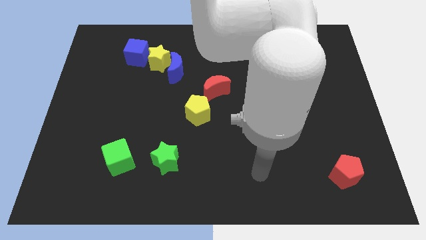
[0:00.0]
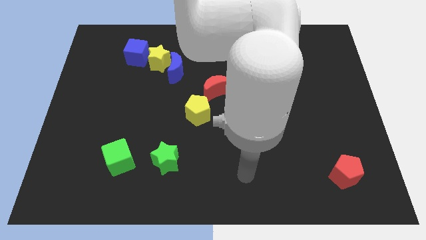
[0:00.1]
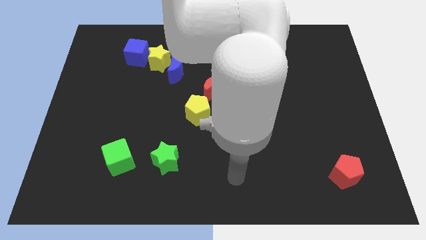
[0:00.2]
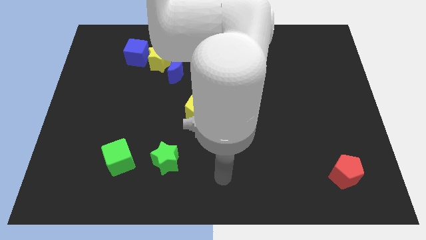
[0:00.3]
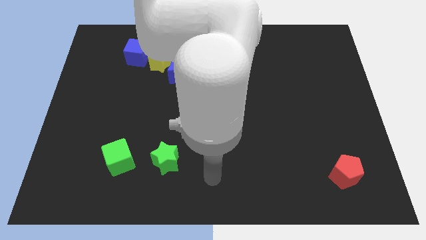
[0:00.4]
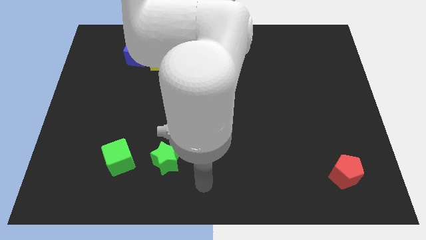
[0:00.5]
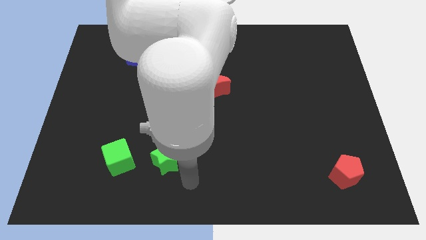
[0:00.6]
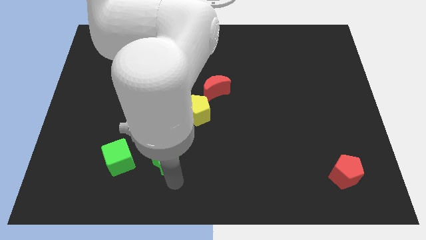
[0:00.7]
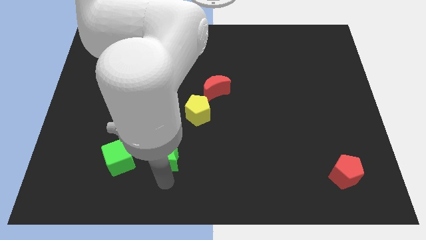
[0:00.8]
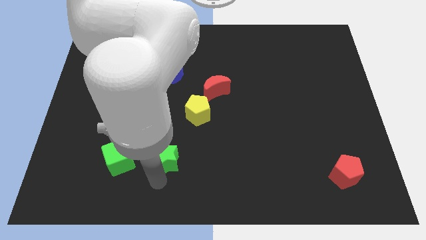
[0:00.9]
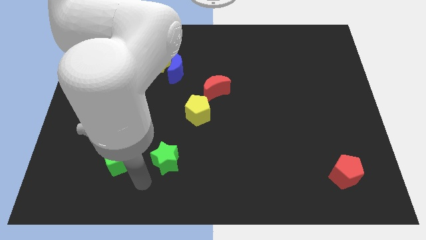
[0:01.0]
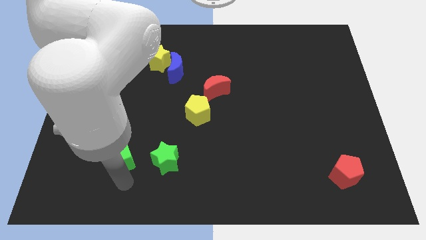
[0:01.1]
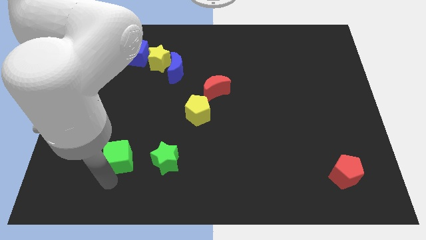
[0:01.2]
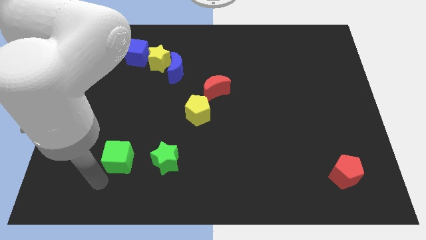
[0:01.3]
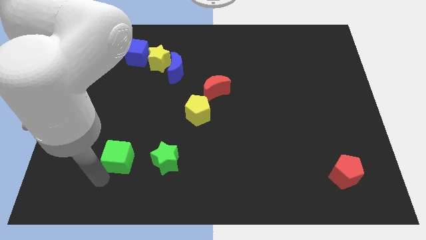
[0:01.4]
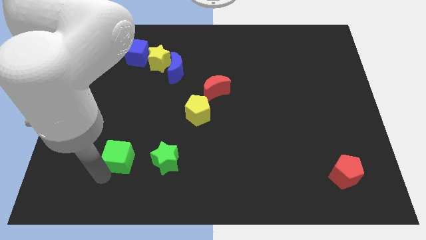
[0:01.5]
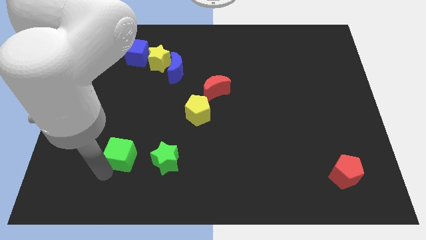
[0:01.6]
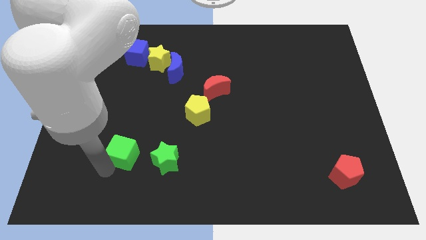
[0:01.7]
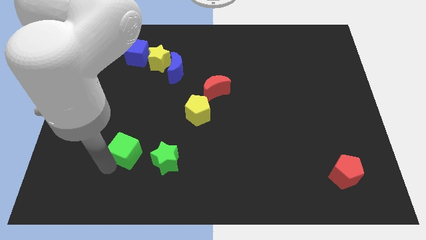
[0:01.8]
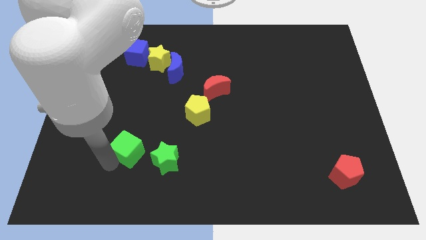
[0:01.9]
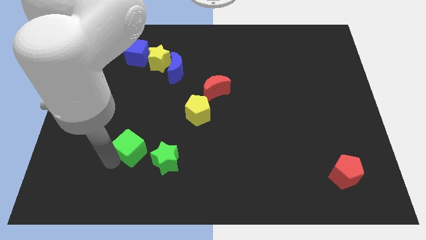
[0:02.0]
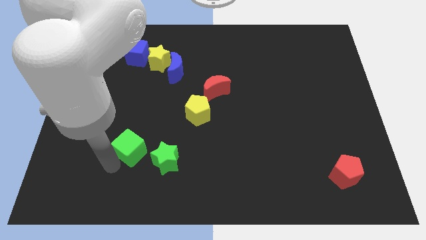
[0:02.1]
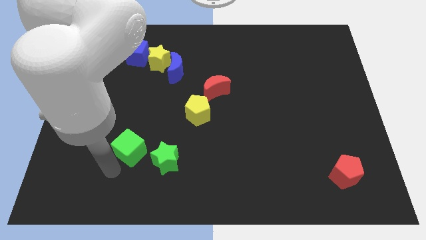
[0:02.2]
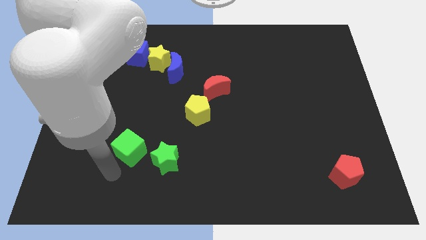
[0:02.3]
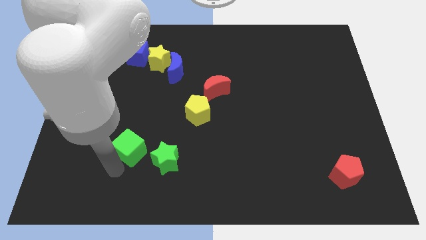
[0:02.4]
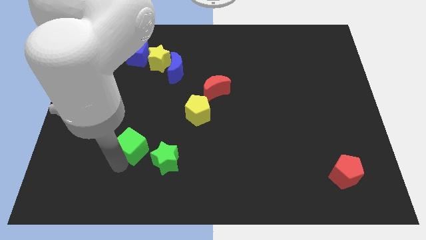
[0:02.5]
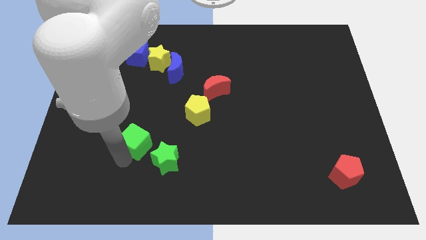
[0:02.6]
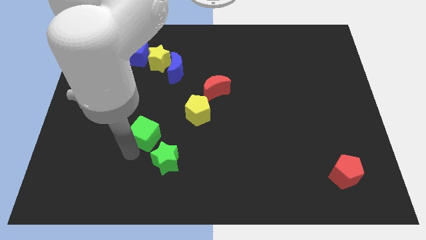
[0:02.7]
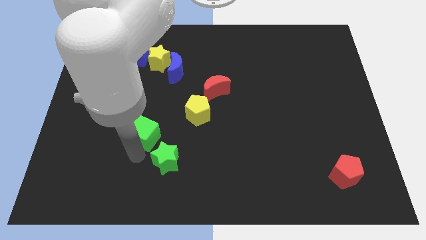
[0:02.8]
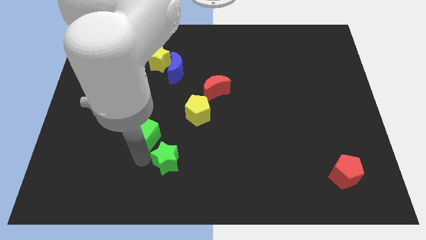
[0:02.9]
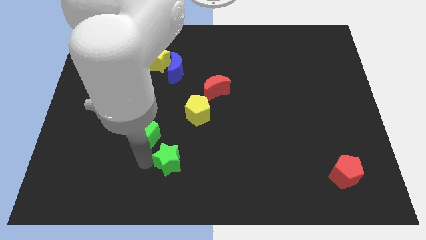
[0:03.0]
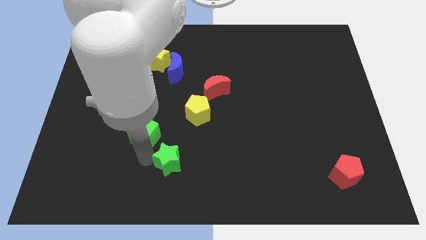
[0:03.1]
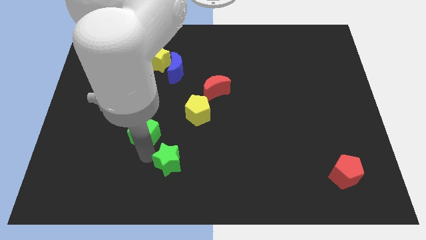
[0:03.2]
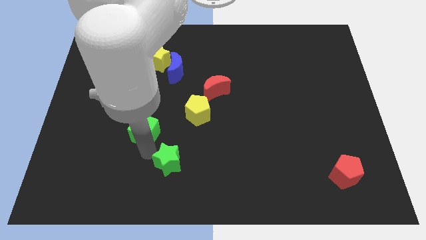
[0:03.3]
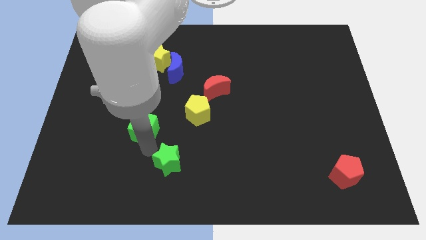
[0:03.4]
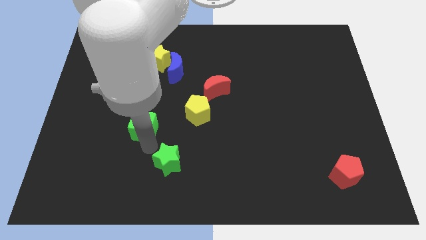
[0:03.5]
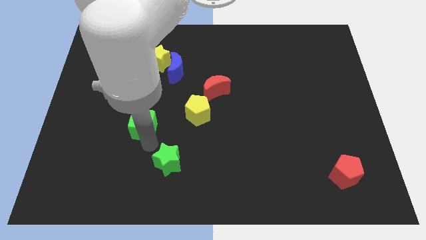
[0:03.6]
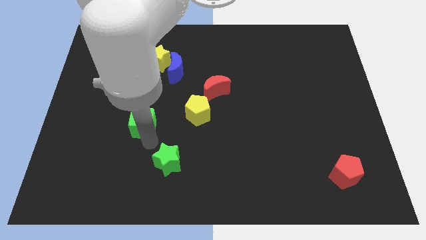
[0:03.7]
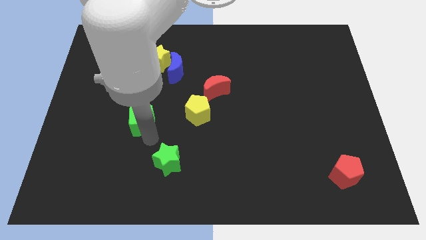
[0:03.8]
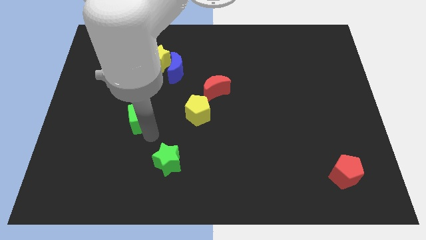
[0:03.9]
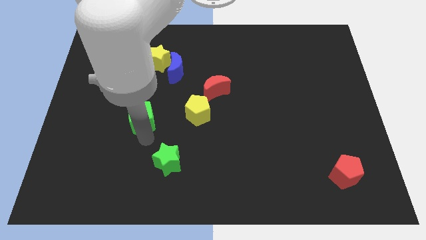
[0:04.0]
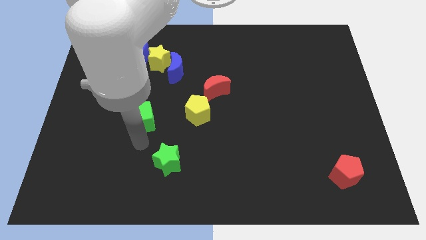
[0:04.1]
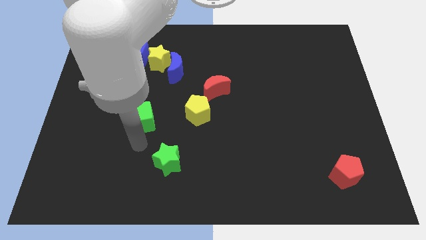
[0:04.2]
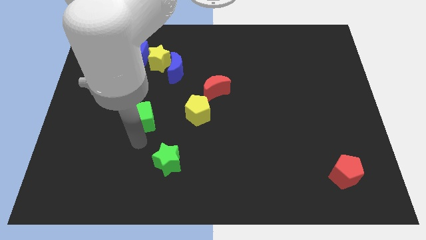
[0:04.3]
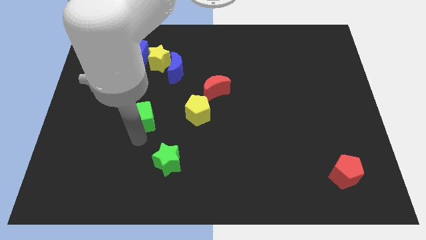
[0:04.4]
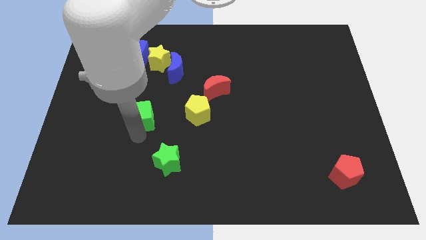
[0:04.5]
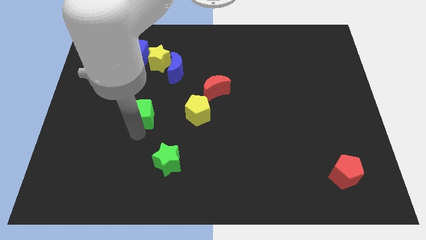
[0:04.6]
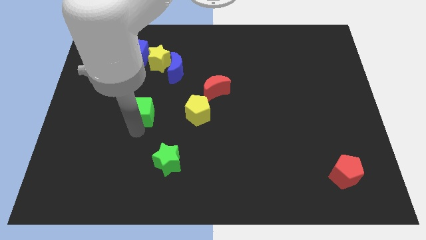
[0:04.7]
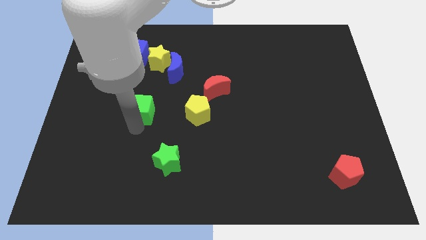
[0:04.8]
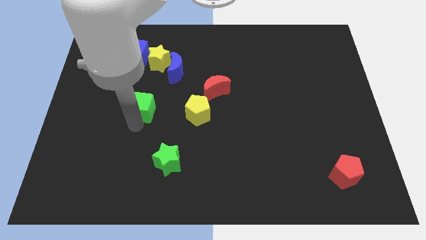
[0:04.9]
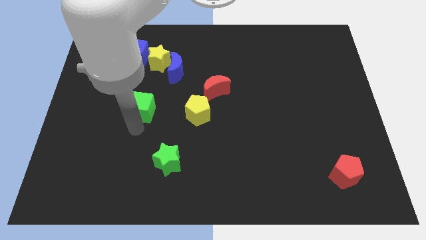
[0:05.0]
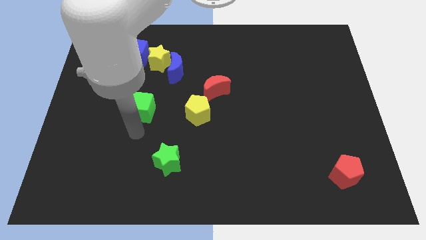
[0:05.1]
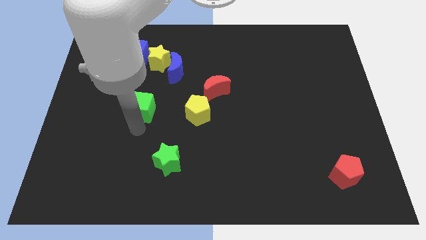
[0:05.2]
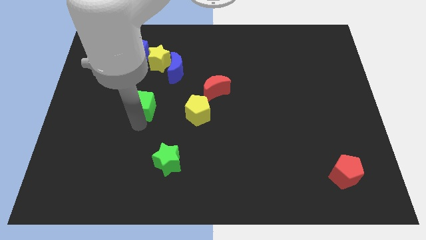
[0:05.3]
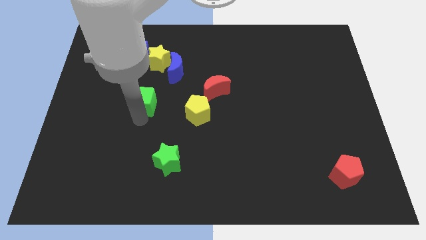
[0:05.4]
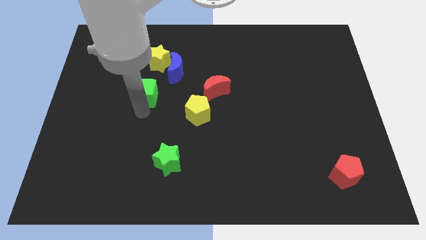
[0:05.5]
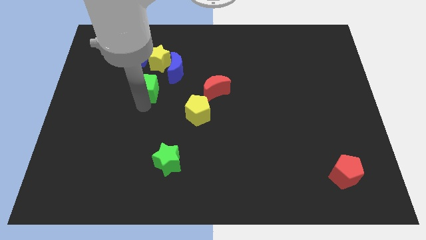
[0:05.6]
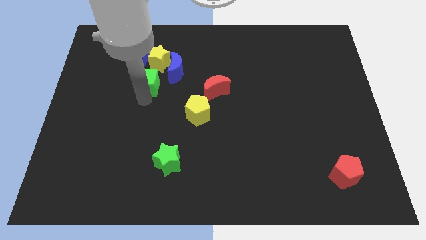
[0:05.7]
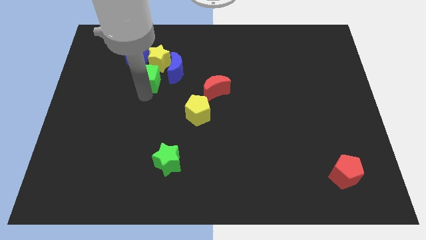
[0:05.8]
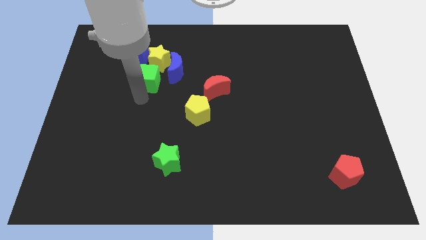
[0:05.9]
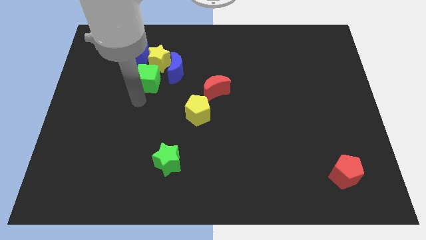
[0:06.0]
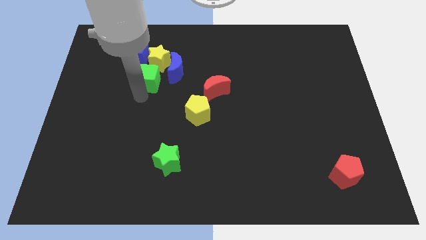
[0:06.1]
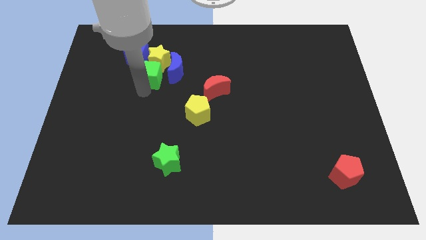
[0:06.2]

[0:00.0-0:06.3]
put the green cube towards the yellow star
